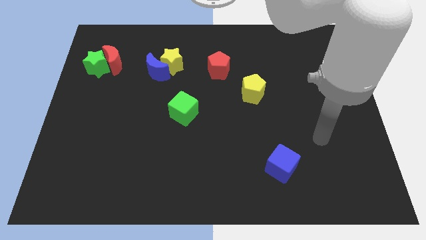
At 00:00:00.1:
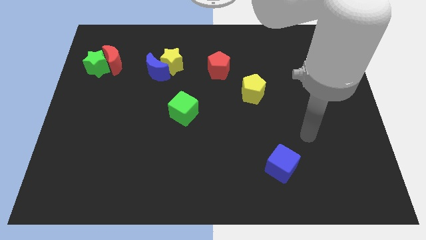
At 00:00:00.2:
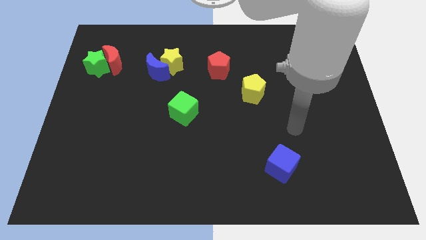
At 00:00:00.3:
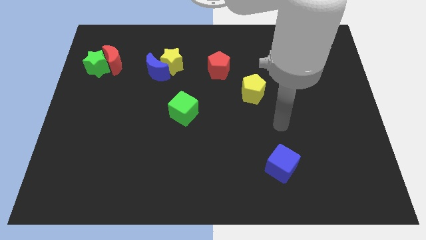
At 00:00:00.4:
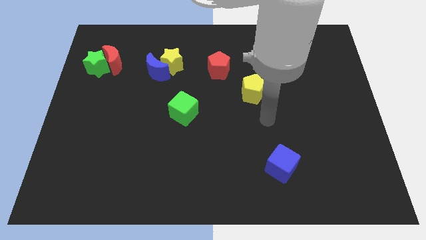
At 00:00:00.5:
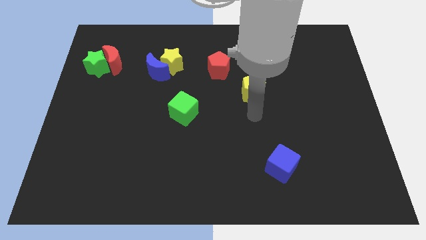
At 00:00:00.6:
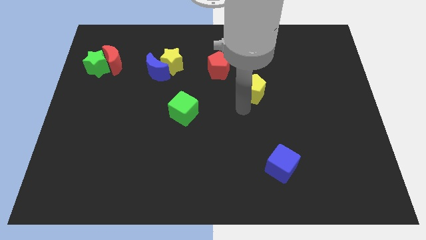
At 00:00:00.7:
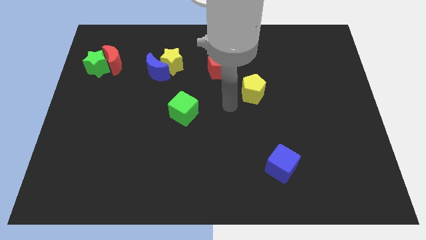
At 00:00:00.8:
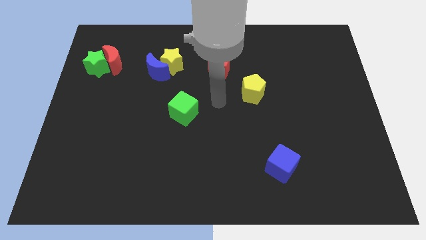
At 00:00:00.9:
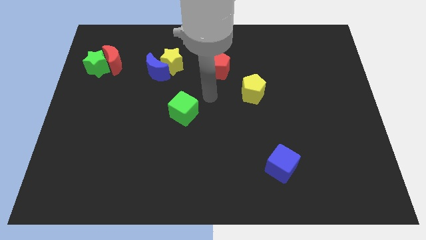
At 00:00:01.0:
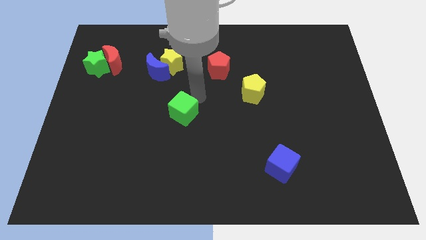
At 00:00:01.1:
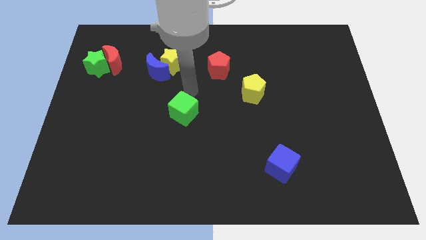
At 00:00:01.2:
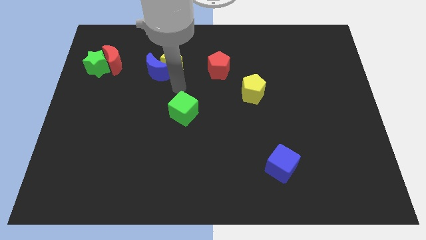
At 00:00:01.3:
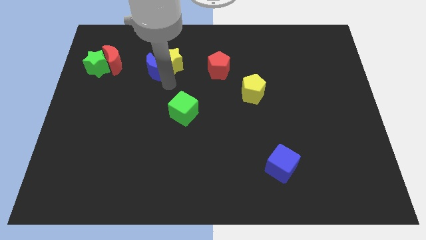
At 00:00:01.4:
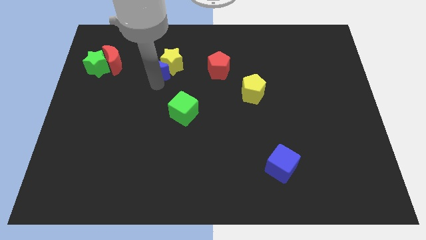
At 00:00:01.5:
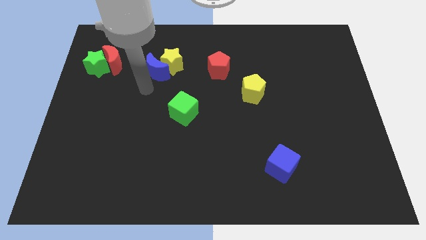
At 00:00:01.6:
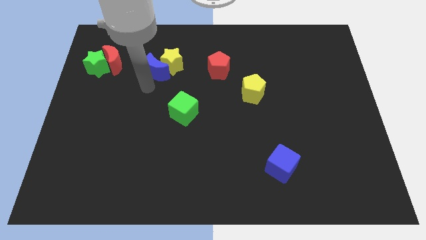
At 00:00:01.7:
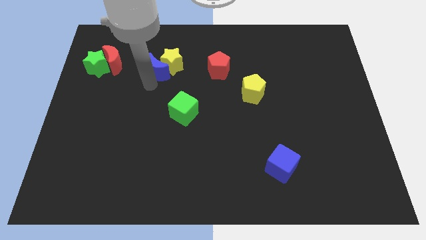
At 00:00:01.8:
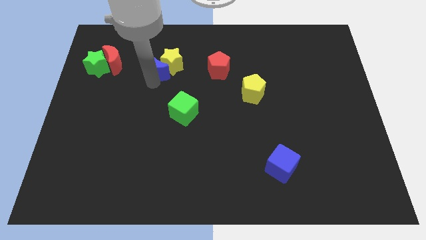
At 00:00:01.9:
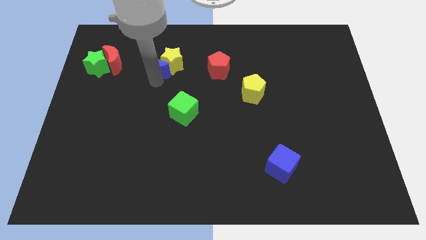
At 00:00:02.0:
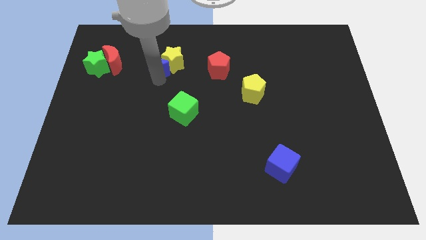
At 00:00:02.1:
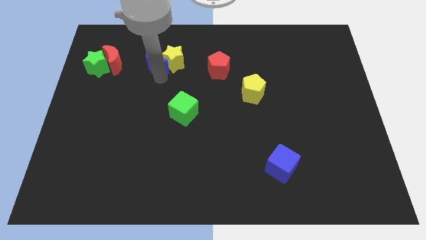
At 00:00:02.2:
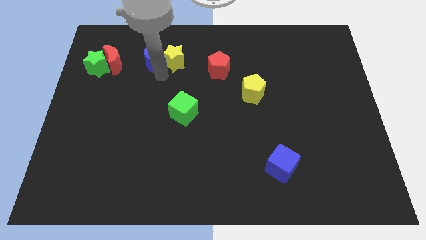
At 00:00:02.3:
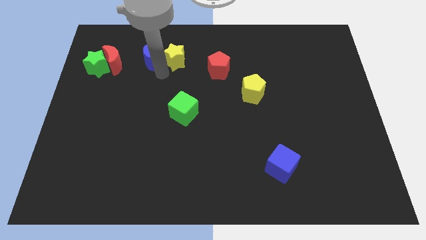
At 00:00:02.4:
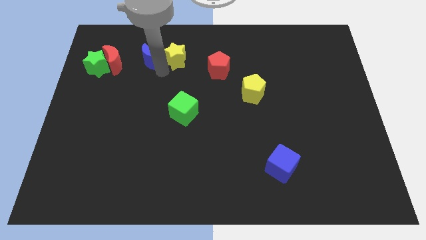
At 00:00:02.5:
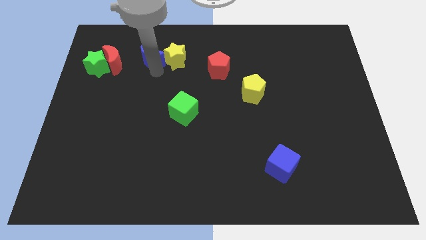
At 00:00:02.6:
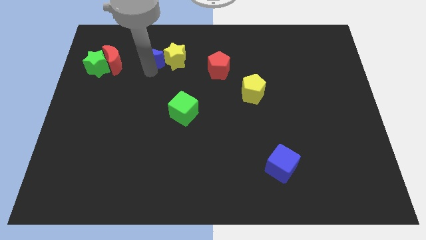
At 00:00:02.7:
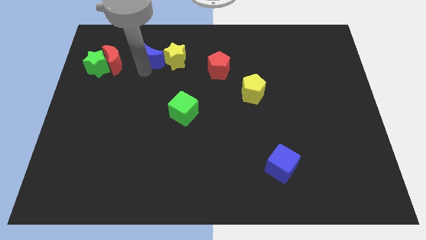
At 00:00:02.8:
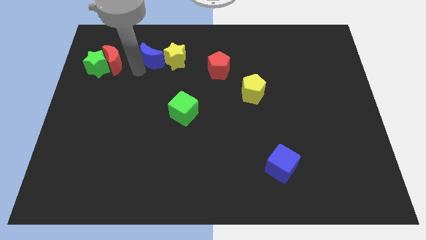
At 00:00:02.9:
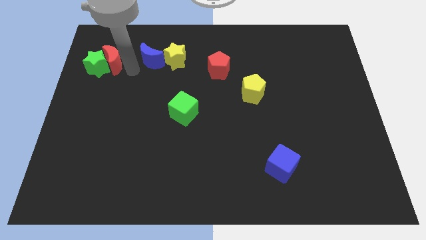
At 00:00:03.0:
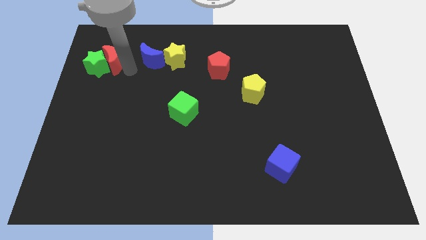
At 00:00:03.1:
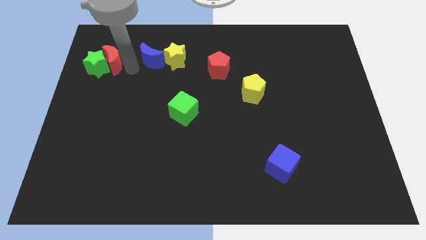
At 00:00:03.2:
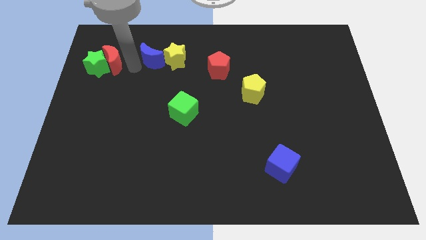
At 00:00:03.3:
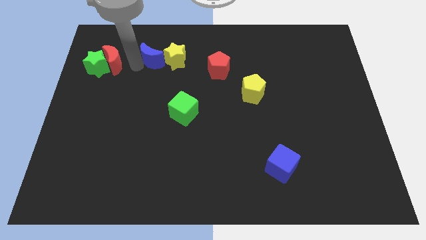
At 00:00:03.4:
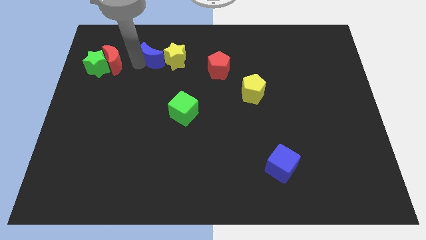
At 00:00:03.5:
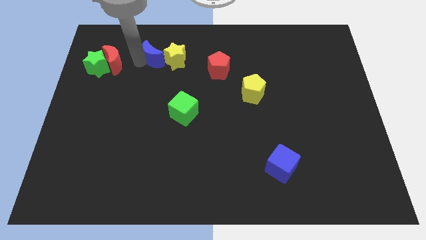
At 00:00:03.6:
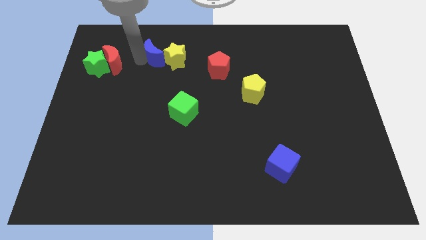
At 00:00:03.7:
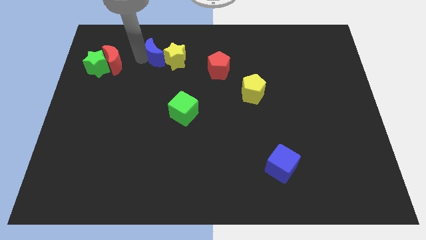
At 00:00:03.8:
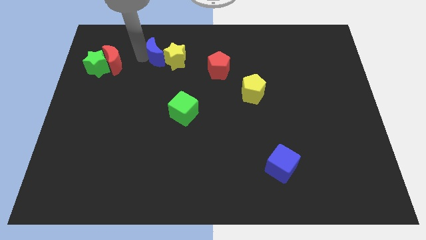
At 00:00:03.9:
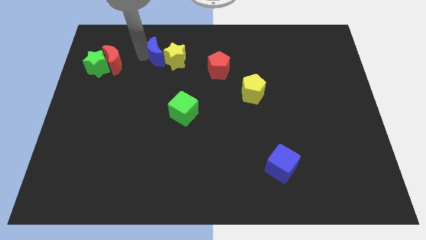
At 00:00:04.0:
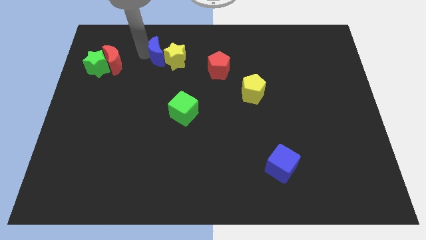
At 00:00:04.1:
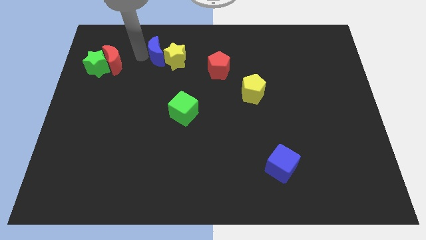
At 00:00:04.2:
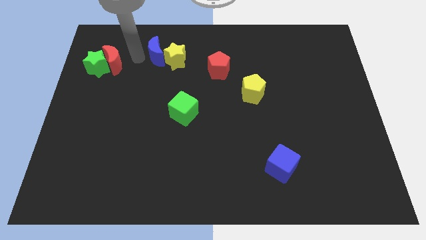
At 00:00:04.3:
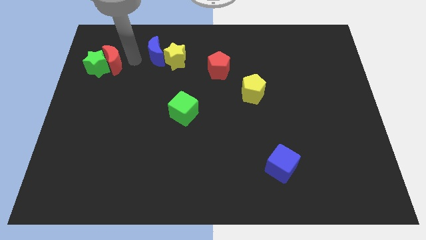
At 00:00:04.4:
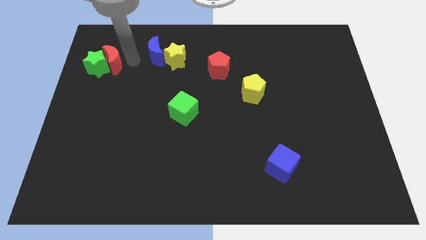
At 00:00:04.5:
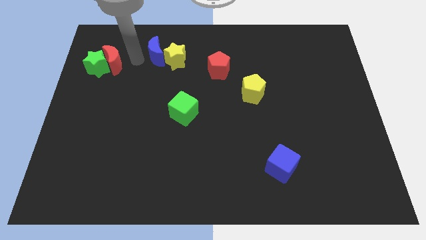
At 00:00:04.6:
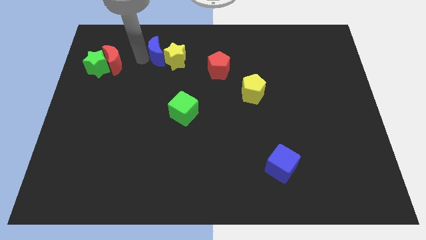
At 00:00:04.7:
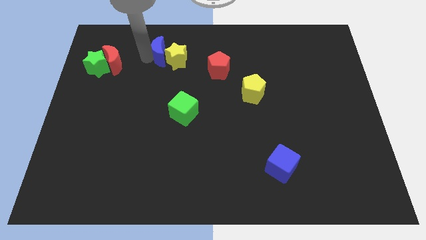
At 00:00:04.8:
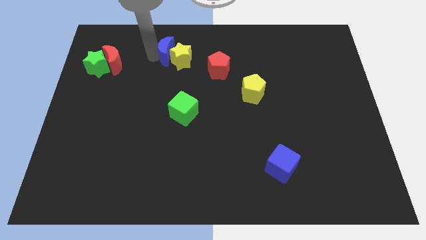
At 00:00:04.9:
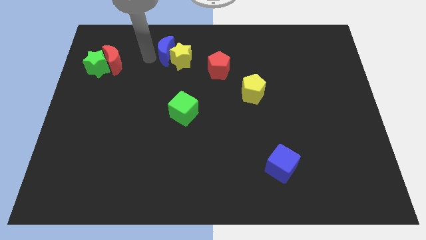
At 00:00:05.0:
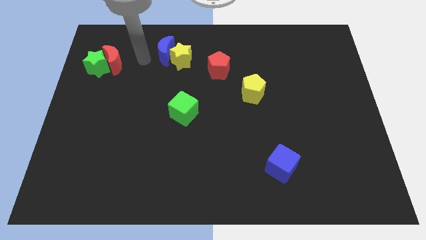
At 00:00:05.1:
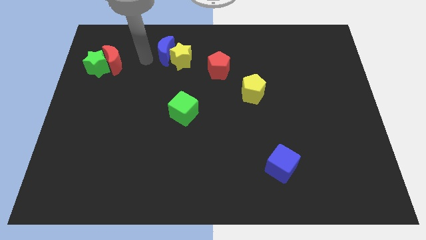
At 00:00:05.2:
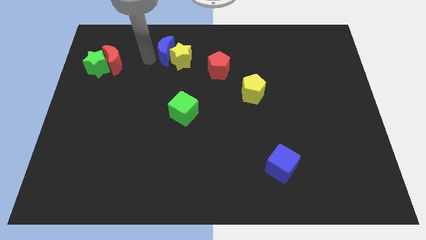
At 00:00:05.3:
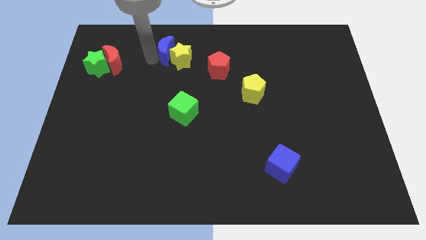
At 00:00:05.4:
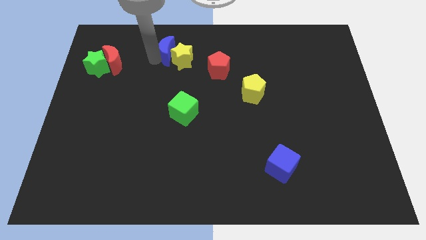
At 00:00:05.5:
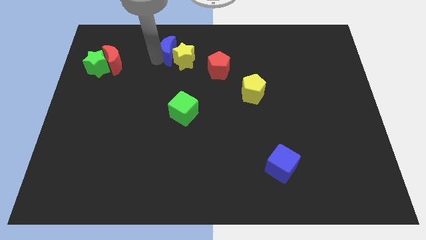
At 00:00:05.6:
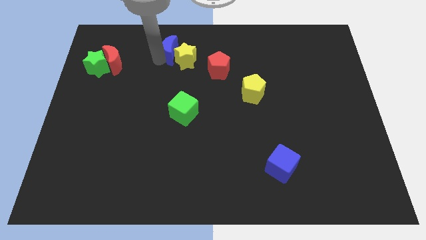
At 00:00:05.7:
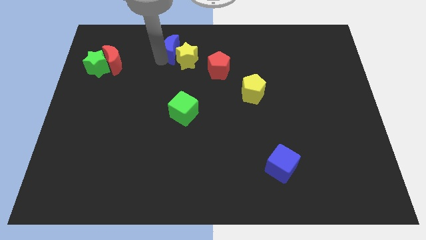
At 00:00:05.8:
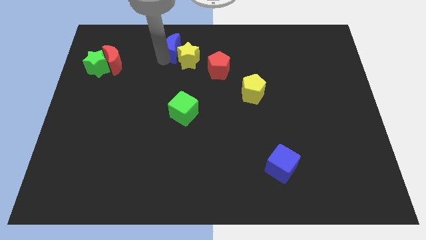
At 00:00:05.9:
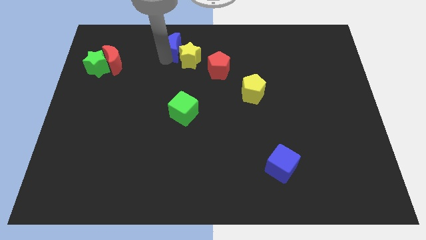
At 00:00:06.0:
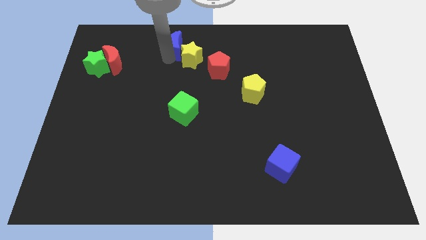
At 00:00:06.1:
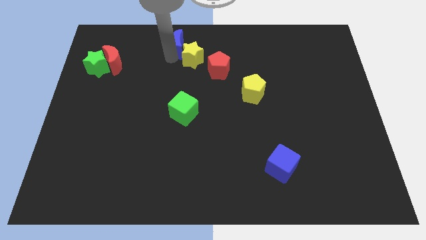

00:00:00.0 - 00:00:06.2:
move the blue moon to the towards your base

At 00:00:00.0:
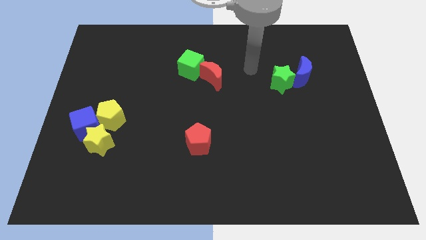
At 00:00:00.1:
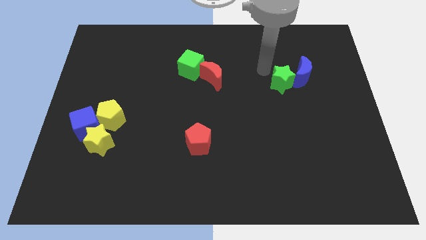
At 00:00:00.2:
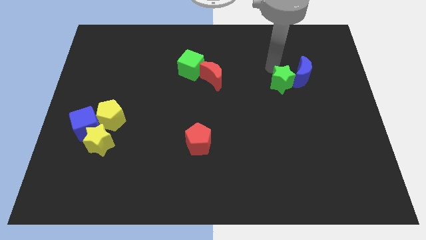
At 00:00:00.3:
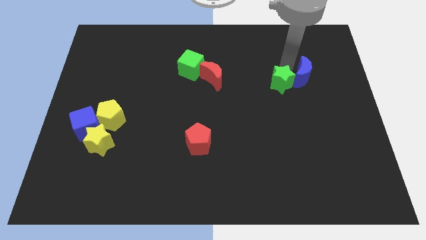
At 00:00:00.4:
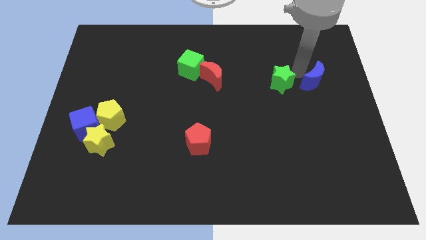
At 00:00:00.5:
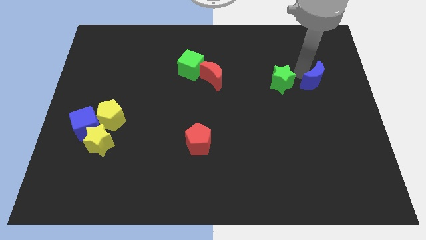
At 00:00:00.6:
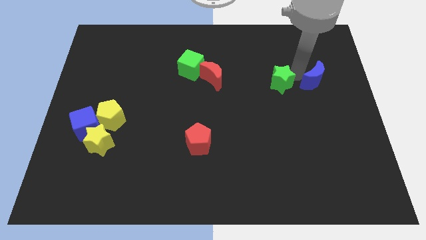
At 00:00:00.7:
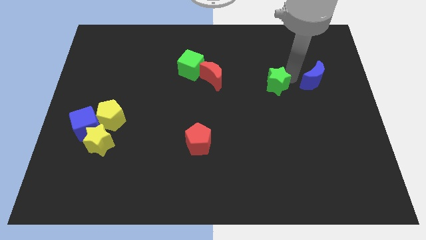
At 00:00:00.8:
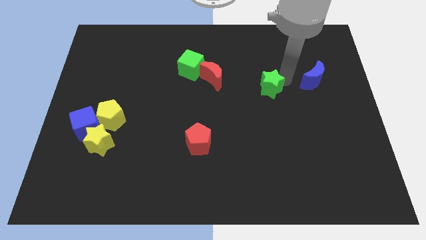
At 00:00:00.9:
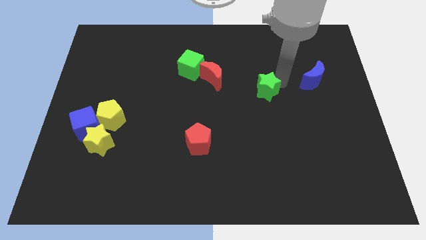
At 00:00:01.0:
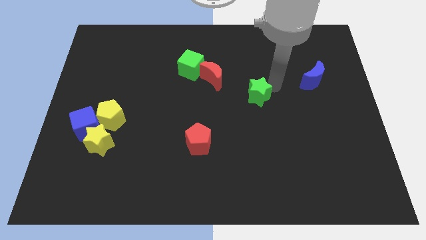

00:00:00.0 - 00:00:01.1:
move the green star to the middle

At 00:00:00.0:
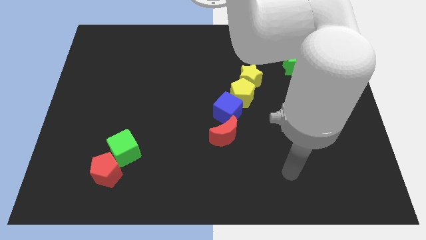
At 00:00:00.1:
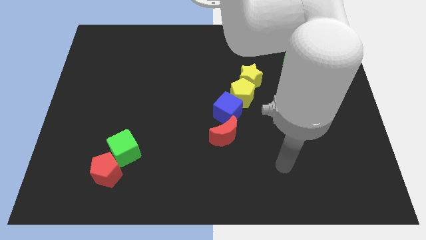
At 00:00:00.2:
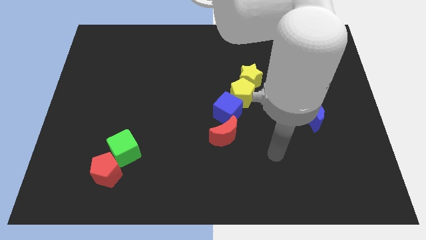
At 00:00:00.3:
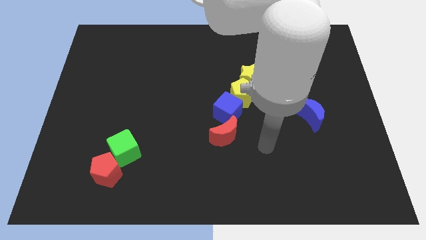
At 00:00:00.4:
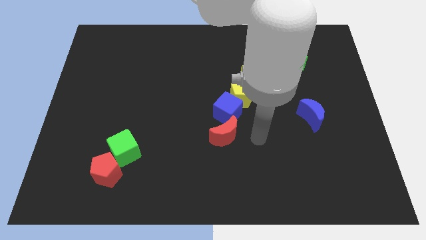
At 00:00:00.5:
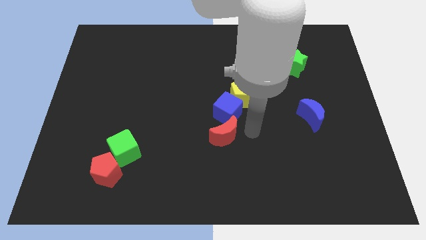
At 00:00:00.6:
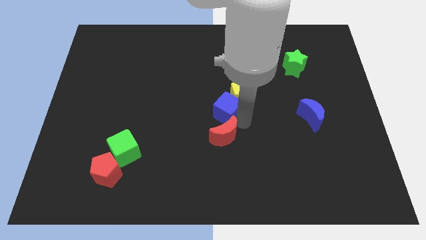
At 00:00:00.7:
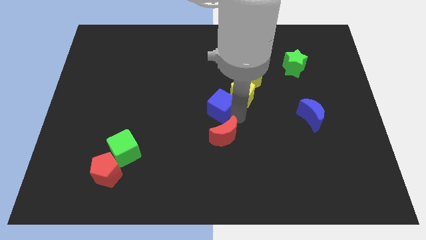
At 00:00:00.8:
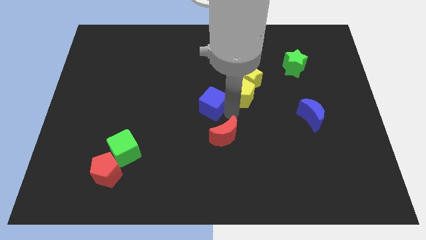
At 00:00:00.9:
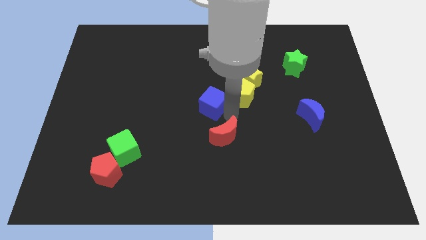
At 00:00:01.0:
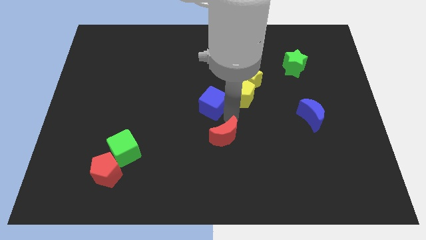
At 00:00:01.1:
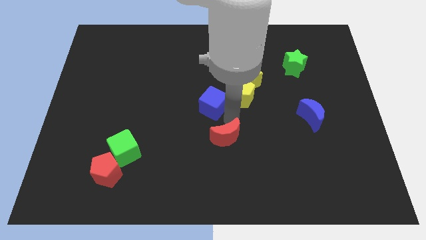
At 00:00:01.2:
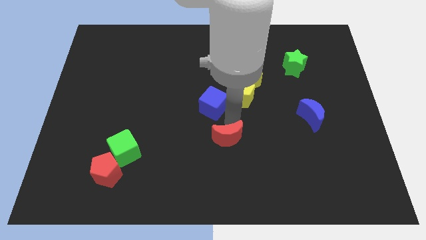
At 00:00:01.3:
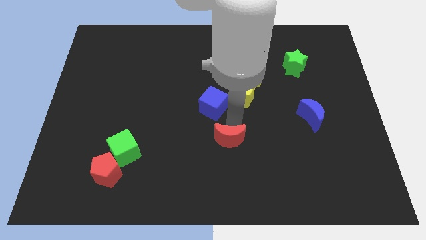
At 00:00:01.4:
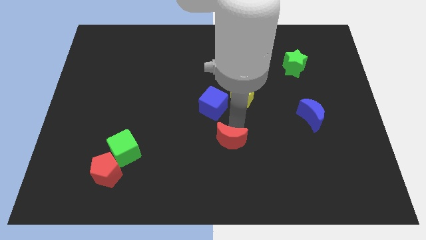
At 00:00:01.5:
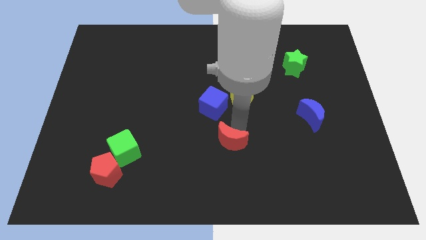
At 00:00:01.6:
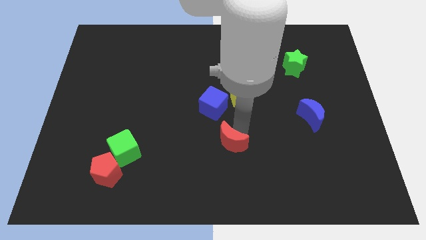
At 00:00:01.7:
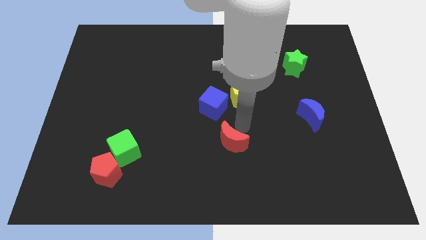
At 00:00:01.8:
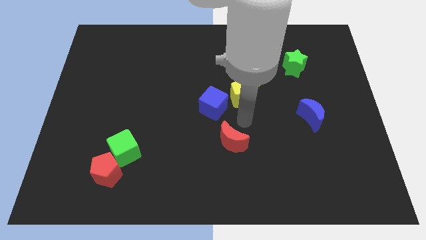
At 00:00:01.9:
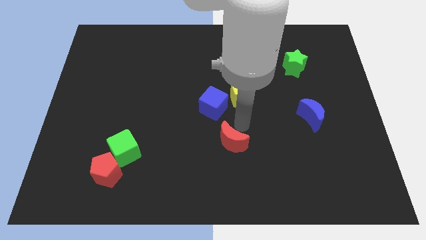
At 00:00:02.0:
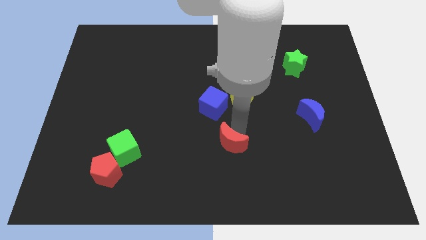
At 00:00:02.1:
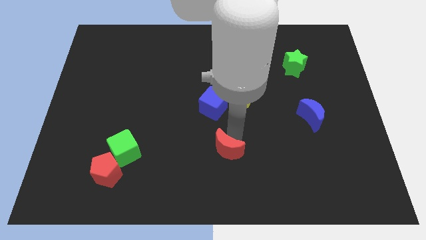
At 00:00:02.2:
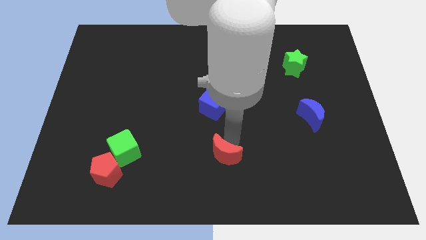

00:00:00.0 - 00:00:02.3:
put the red moon to the bottom side
